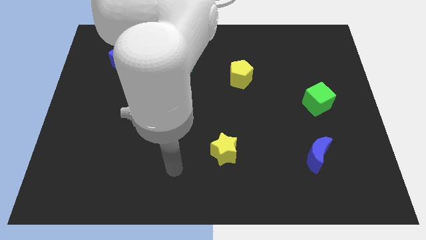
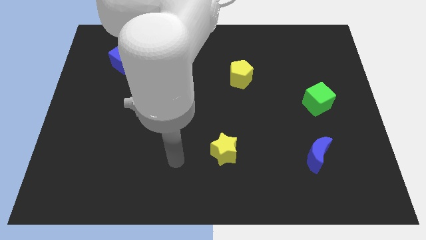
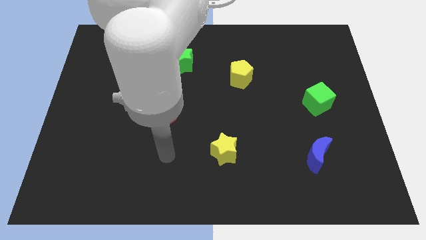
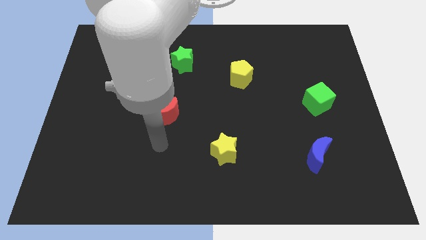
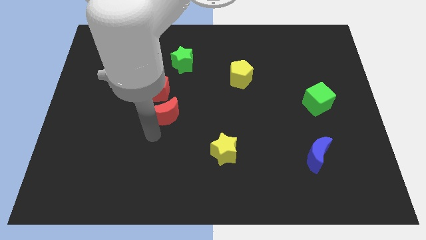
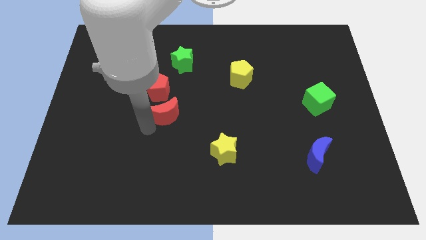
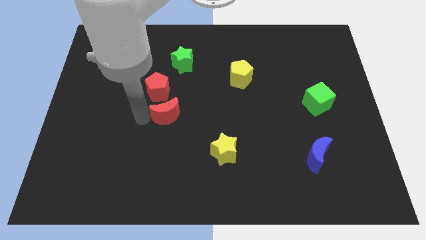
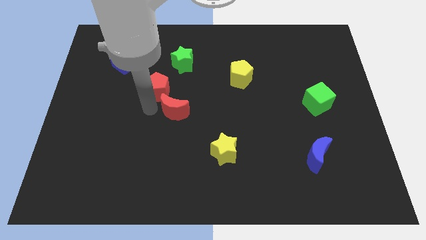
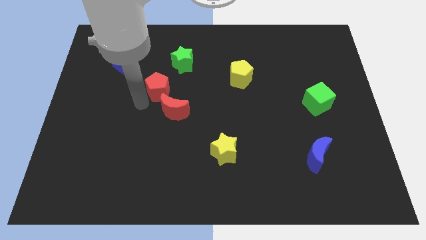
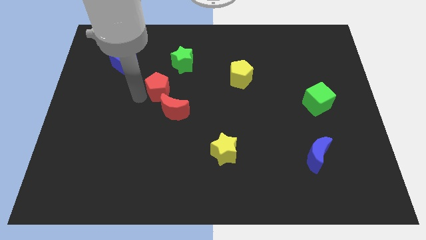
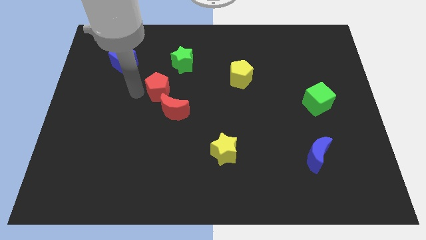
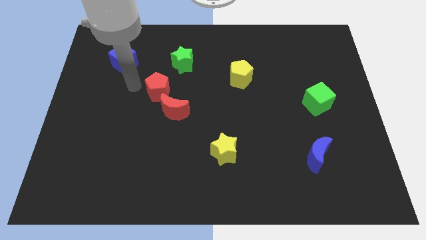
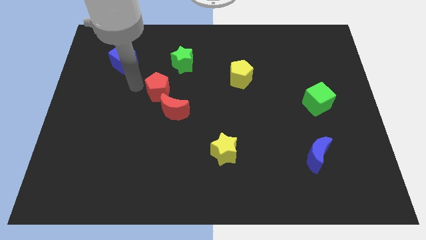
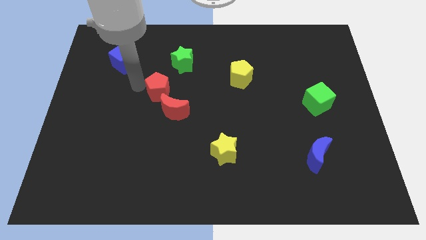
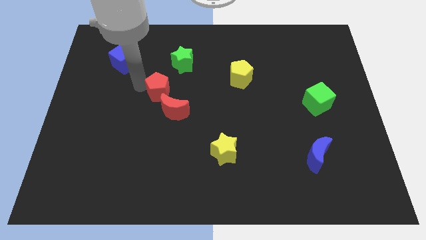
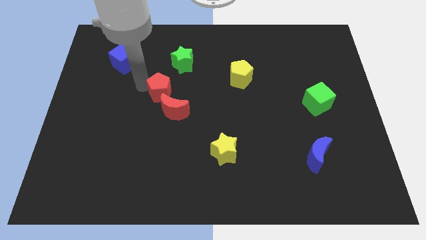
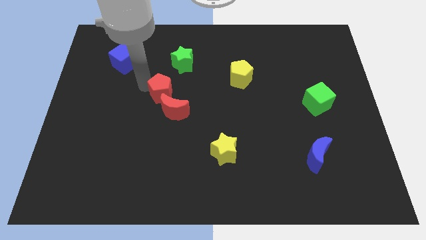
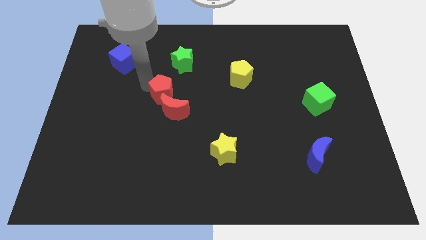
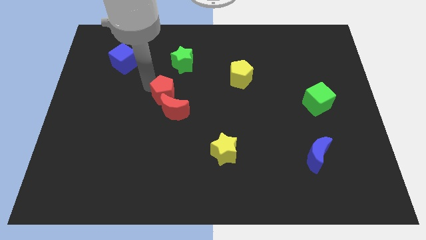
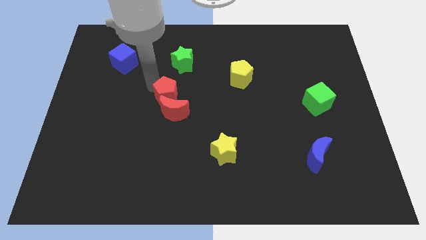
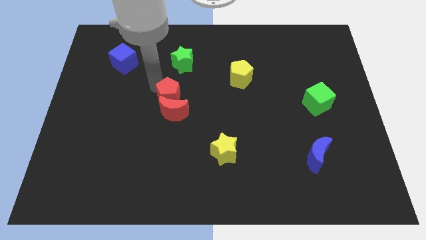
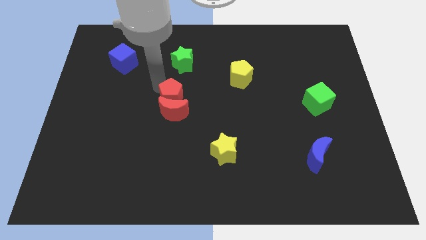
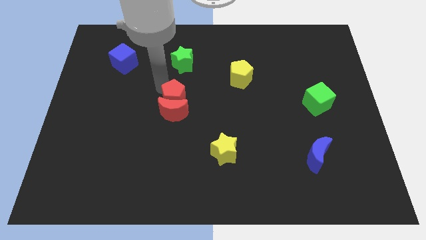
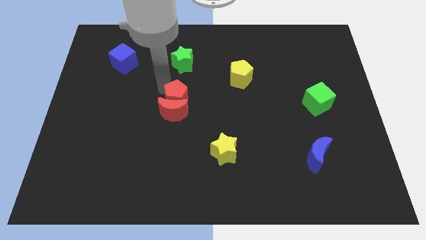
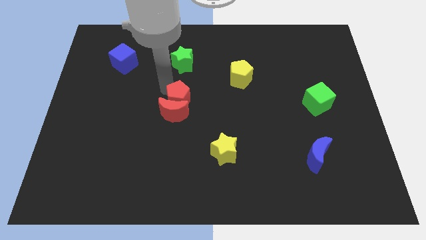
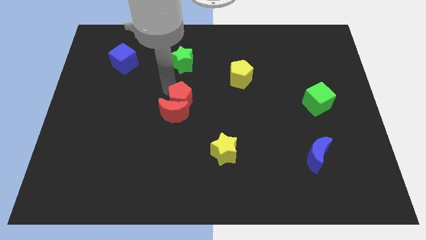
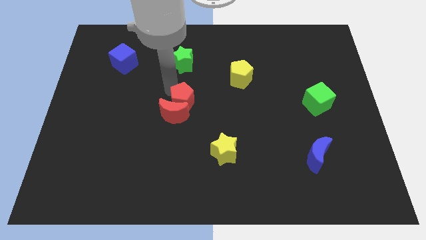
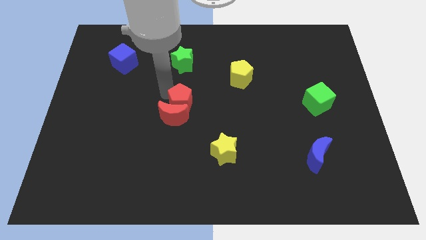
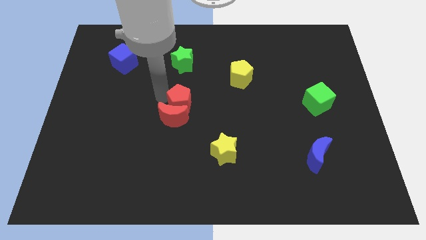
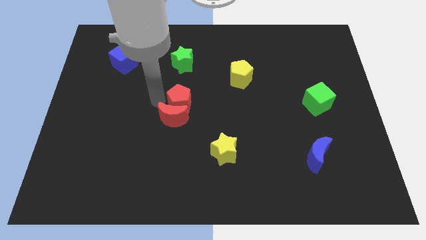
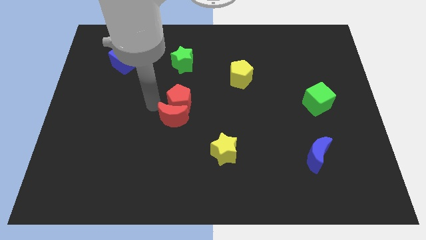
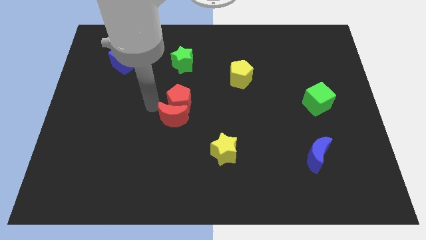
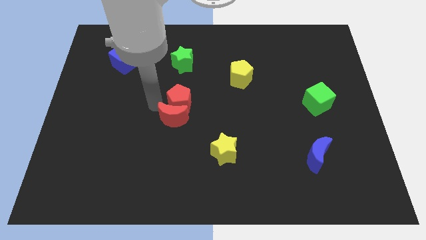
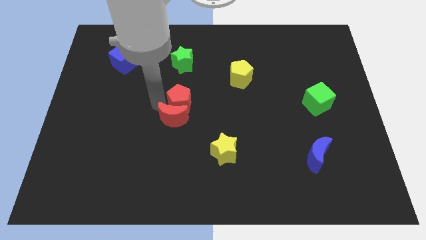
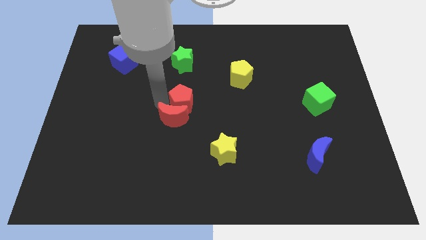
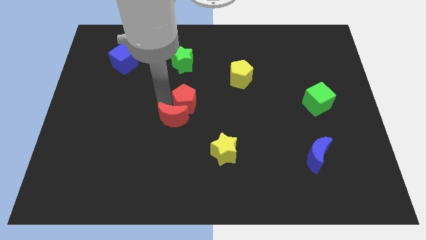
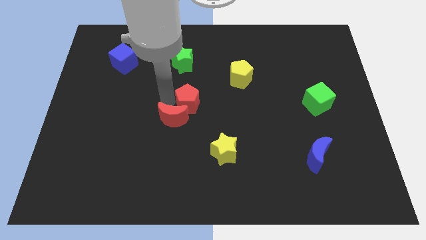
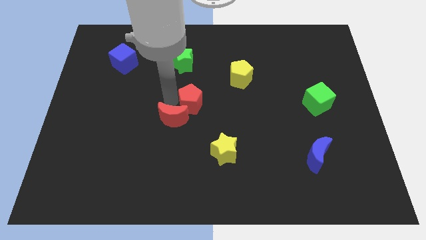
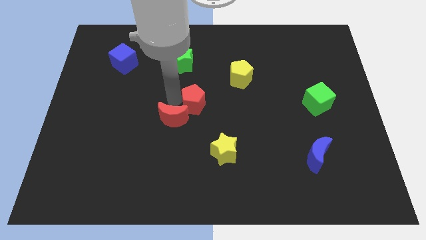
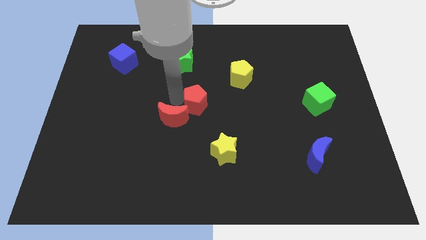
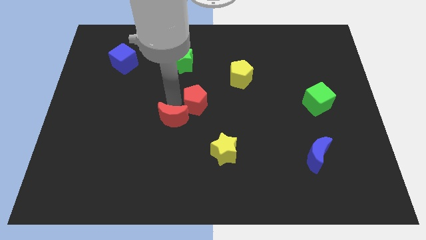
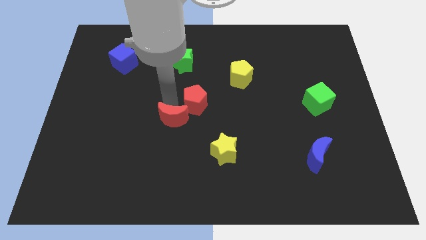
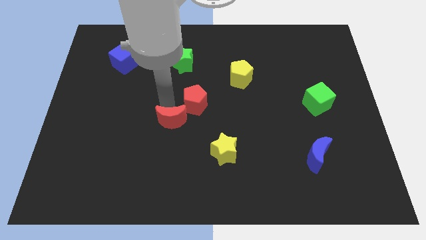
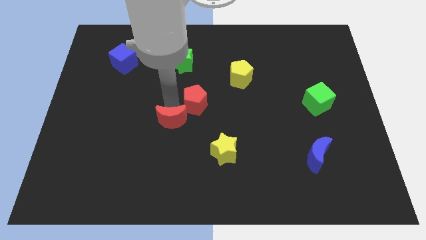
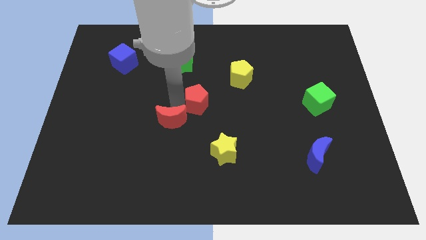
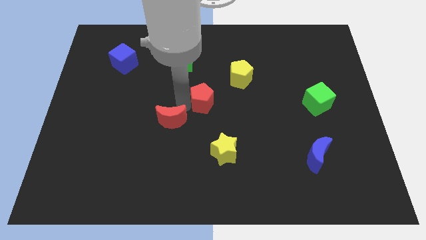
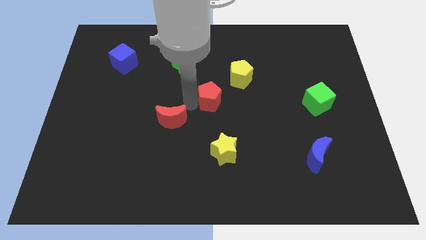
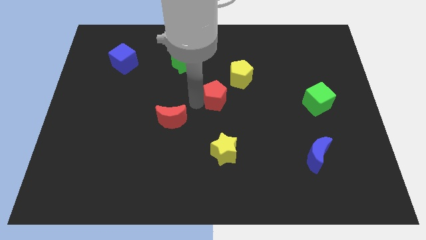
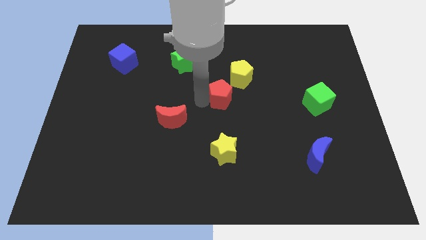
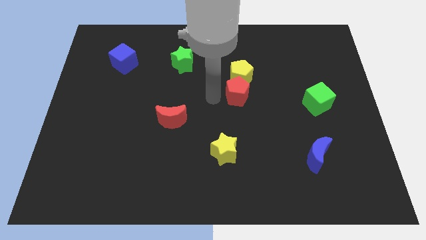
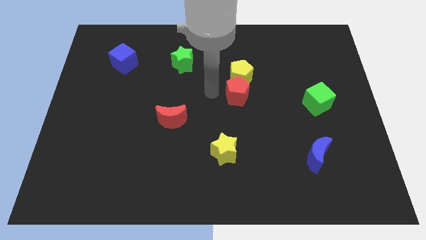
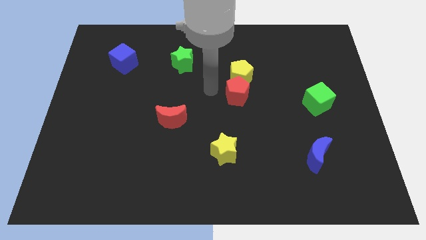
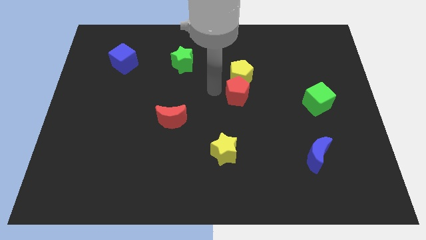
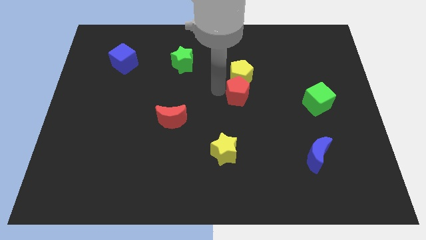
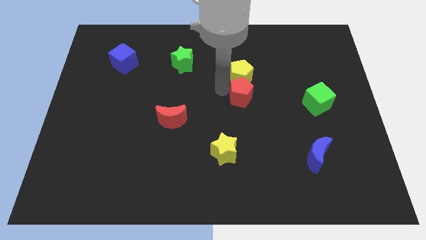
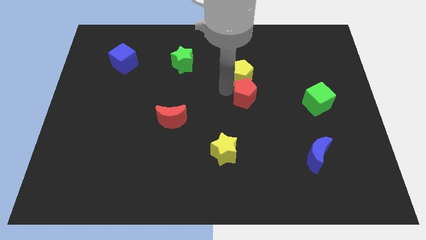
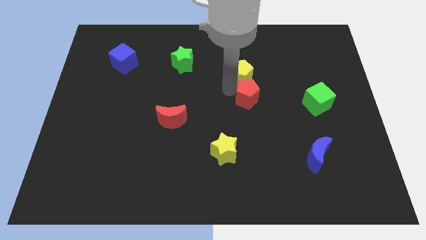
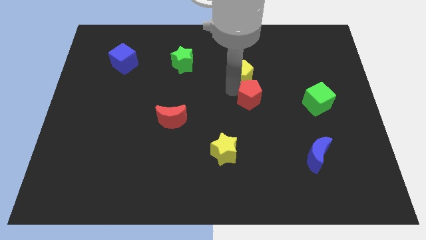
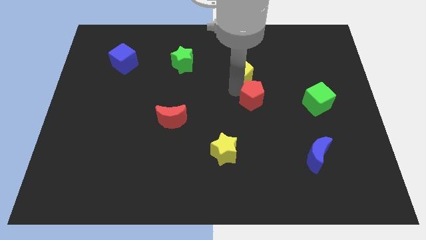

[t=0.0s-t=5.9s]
push the red pentagon just left of the green cube
